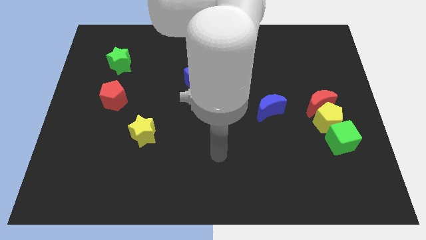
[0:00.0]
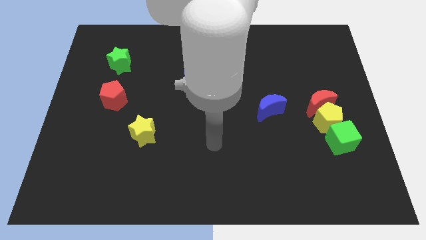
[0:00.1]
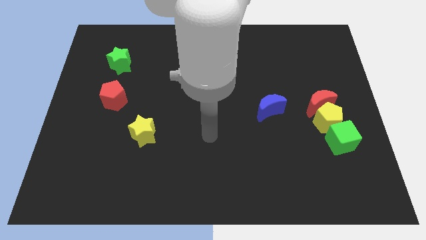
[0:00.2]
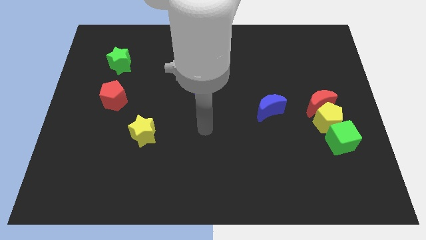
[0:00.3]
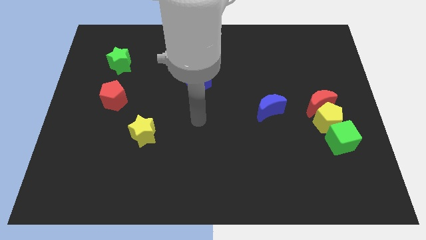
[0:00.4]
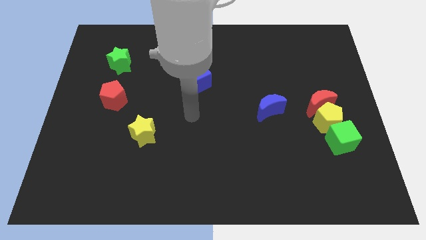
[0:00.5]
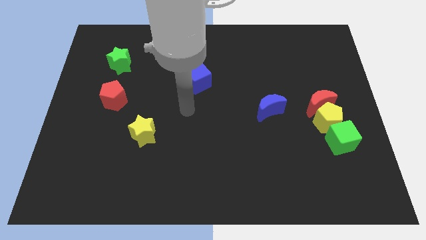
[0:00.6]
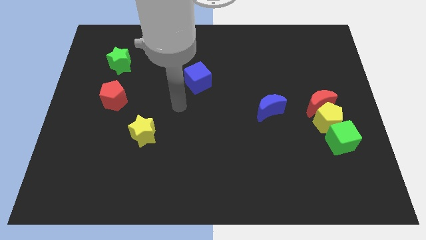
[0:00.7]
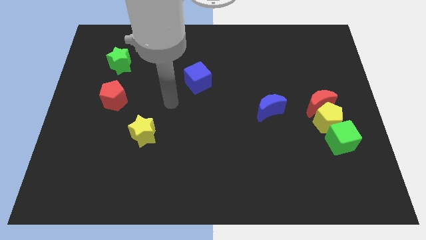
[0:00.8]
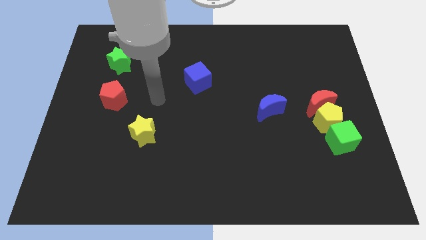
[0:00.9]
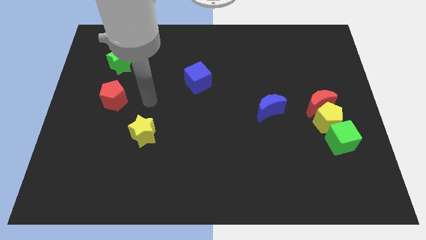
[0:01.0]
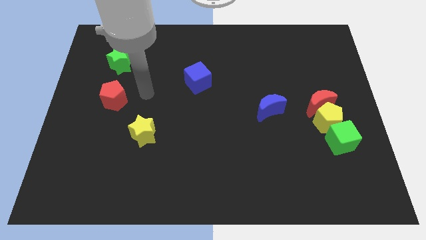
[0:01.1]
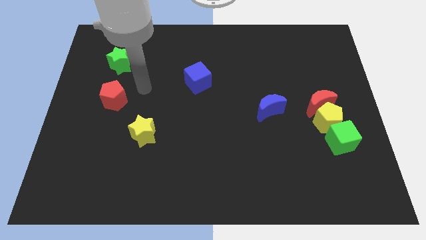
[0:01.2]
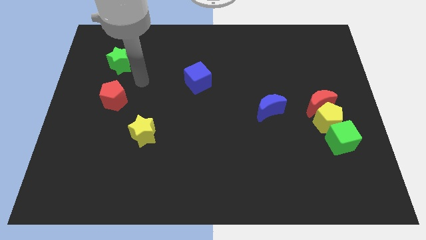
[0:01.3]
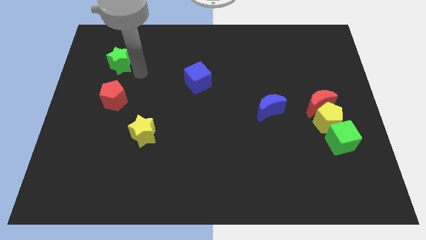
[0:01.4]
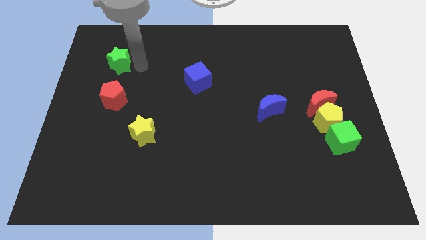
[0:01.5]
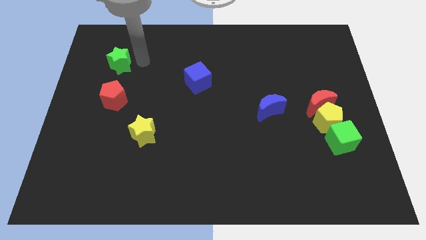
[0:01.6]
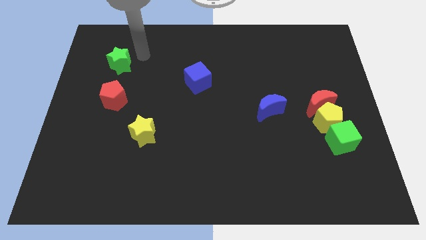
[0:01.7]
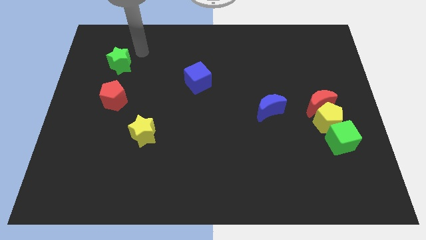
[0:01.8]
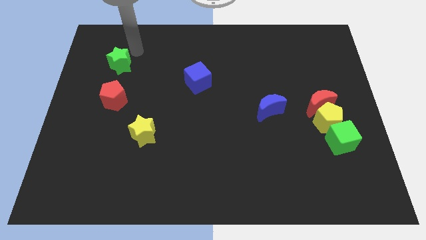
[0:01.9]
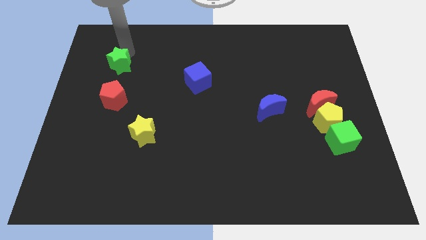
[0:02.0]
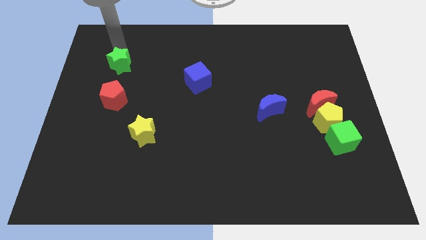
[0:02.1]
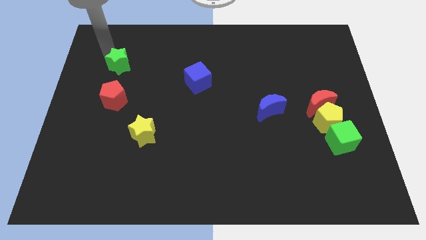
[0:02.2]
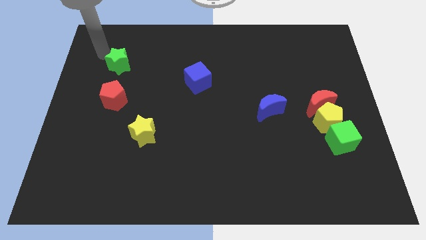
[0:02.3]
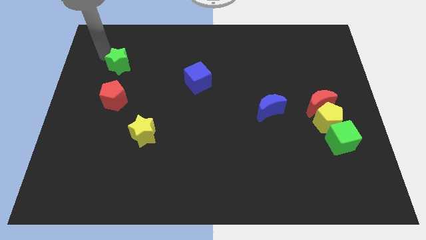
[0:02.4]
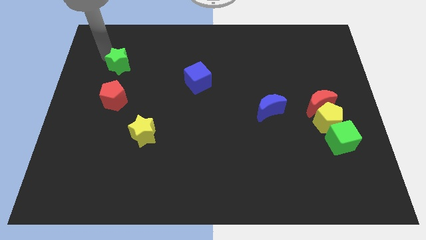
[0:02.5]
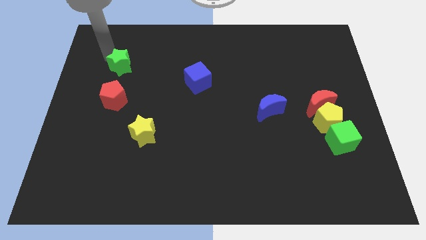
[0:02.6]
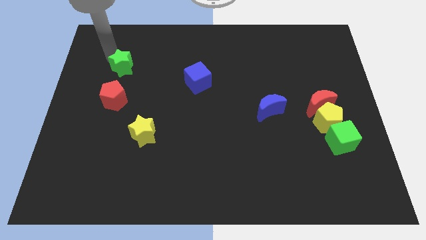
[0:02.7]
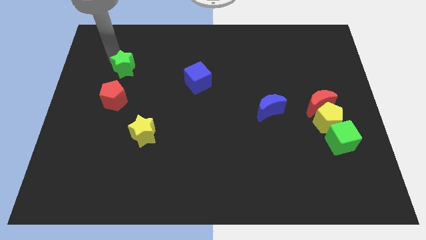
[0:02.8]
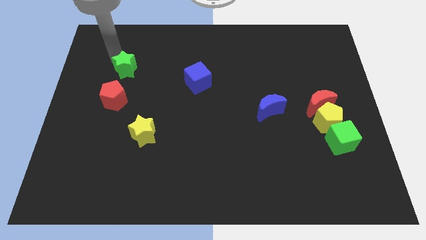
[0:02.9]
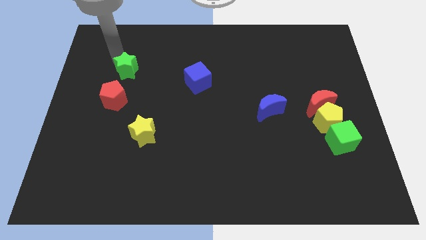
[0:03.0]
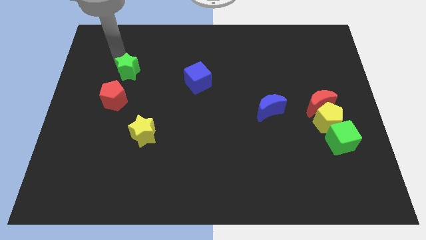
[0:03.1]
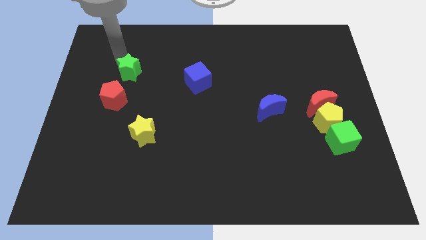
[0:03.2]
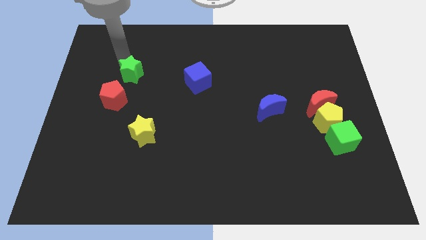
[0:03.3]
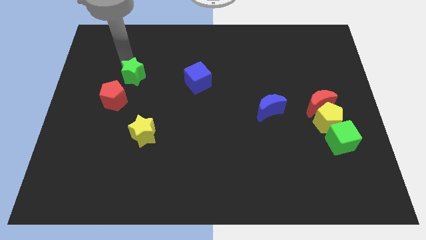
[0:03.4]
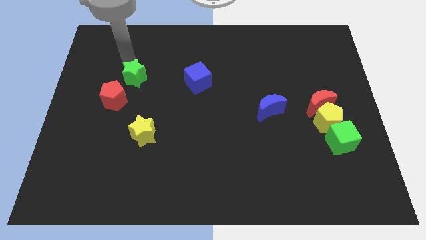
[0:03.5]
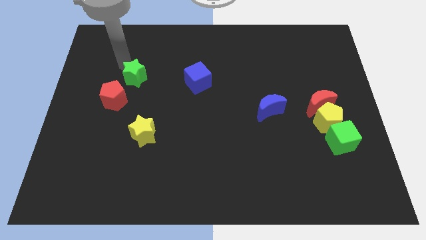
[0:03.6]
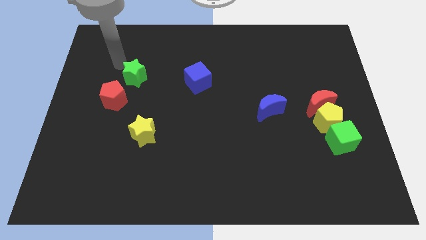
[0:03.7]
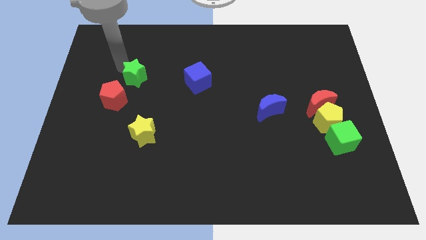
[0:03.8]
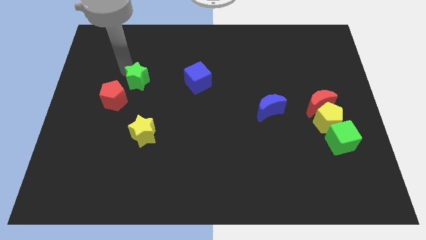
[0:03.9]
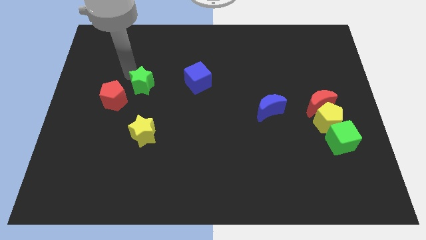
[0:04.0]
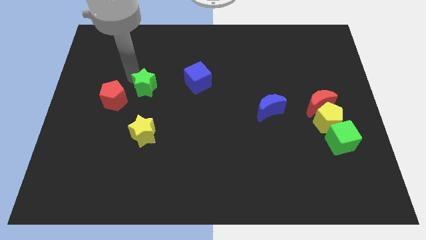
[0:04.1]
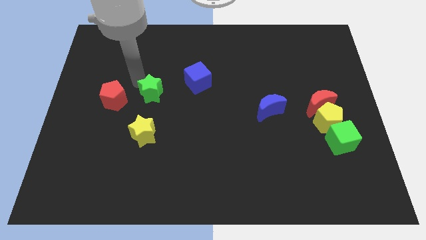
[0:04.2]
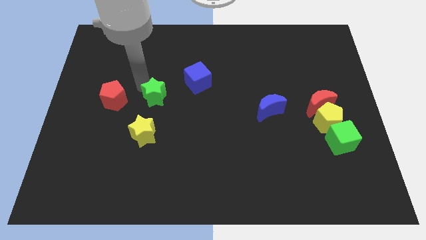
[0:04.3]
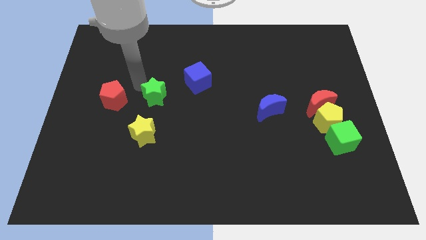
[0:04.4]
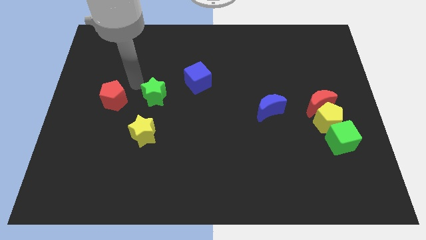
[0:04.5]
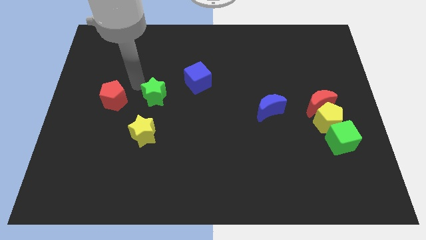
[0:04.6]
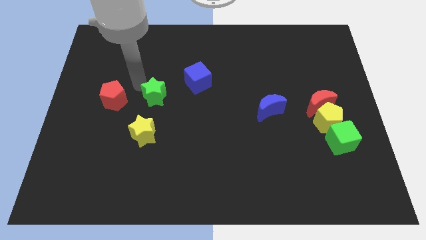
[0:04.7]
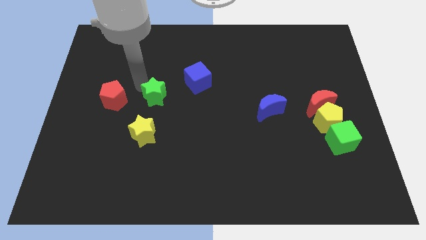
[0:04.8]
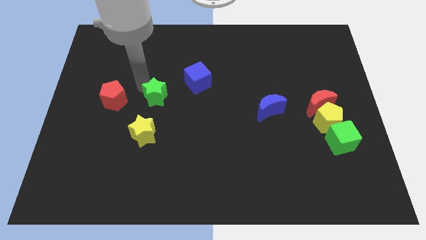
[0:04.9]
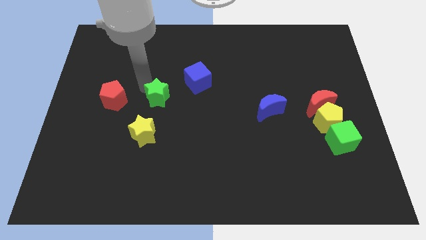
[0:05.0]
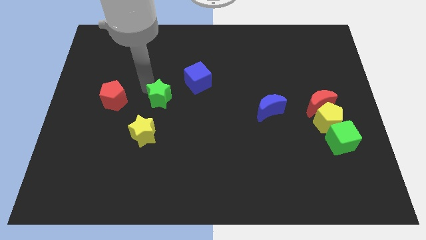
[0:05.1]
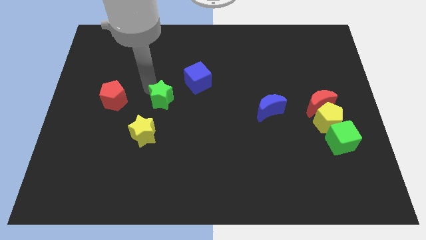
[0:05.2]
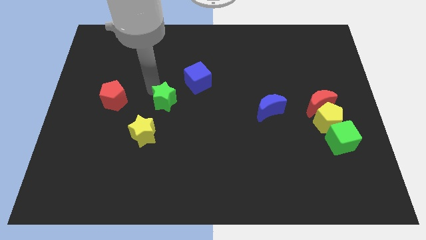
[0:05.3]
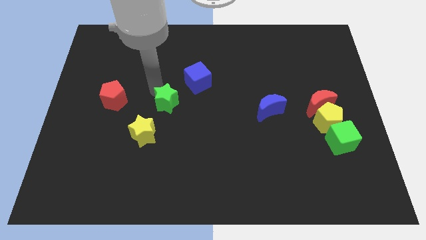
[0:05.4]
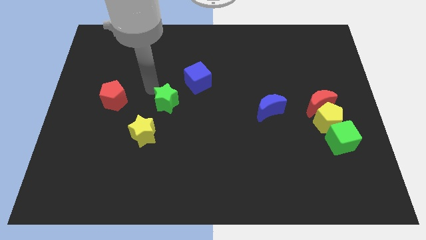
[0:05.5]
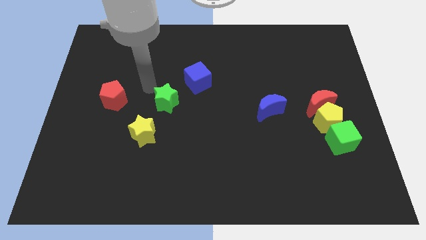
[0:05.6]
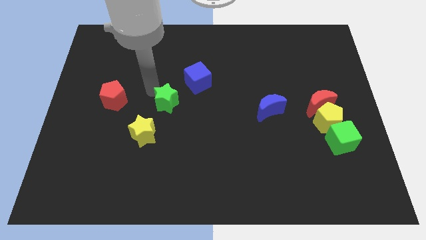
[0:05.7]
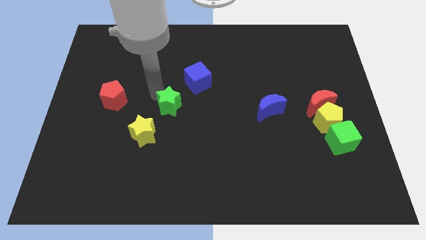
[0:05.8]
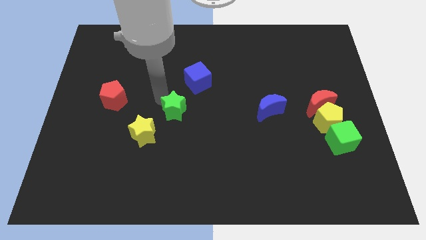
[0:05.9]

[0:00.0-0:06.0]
slide the green star downwards and then right

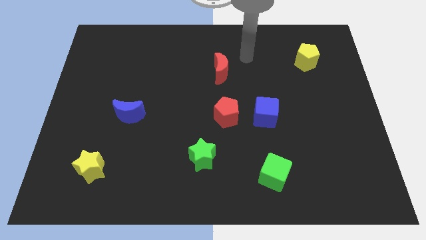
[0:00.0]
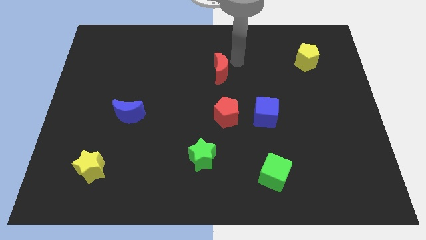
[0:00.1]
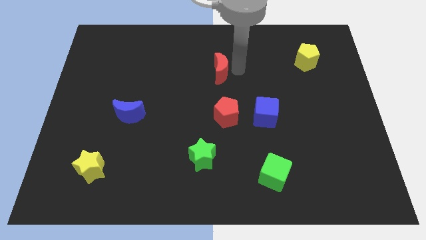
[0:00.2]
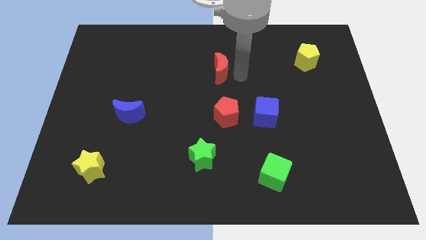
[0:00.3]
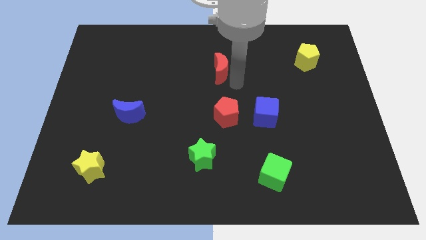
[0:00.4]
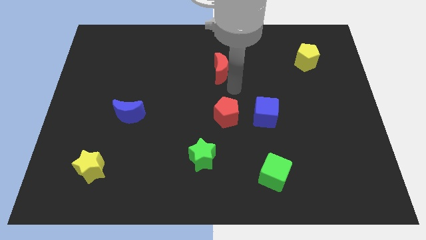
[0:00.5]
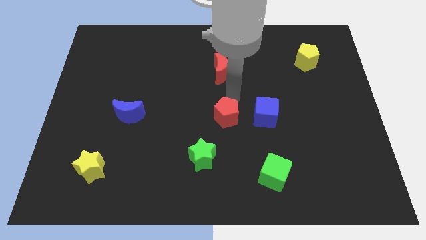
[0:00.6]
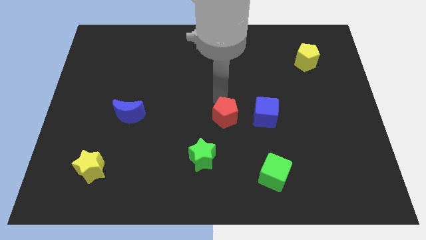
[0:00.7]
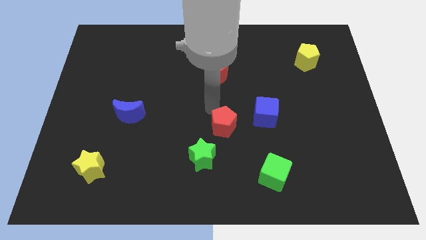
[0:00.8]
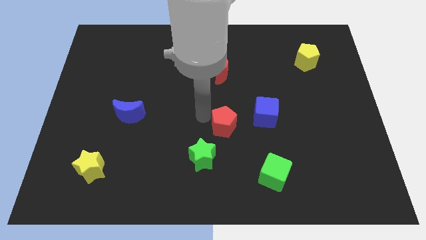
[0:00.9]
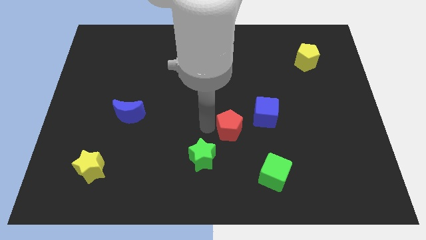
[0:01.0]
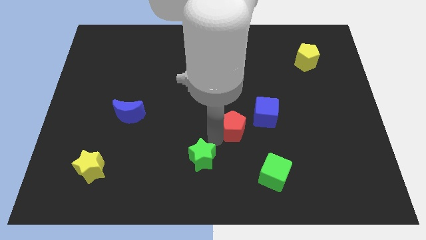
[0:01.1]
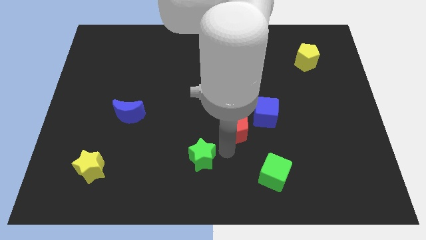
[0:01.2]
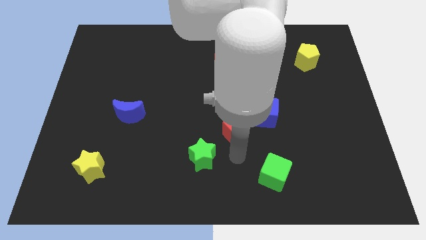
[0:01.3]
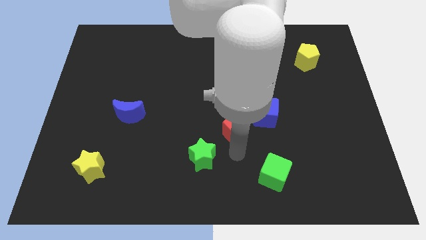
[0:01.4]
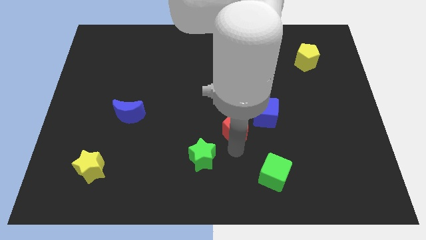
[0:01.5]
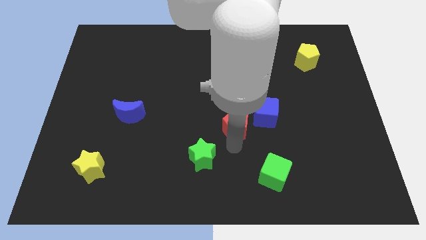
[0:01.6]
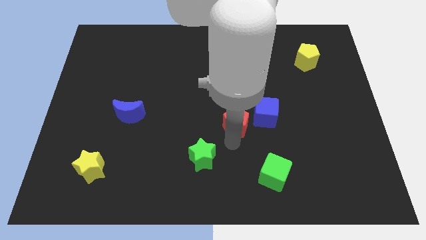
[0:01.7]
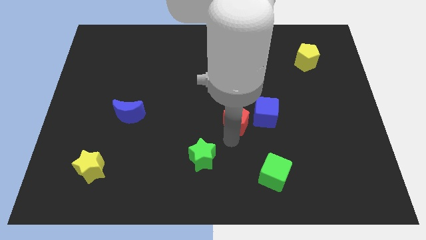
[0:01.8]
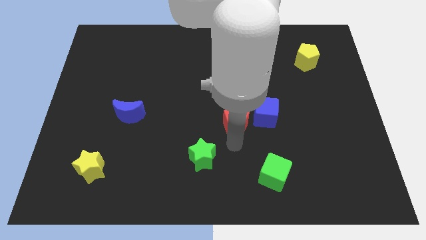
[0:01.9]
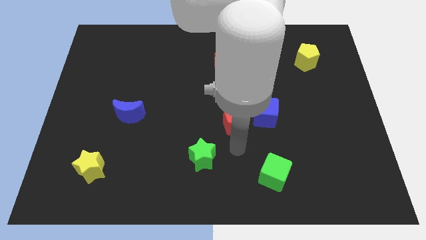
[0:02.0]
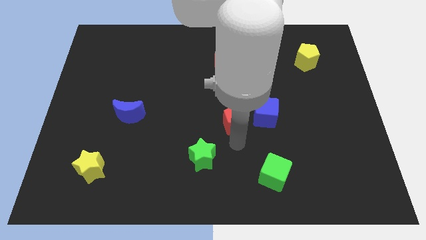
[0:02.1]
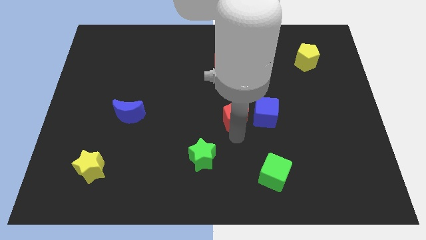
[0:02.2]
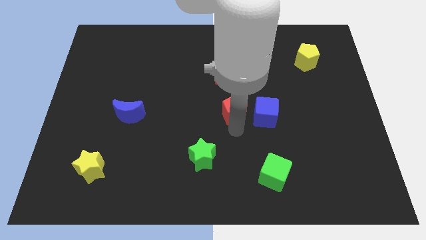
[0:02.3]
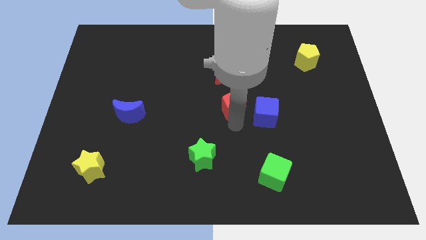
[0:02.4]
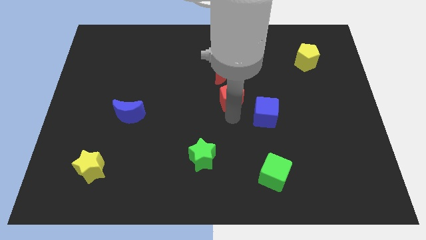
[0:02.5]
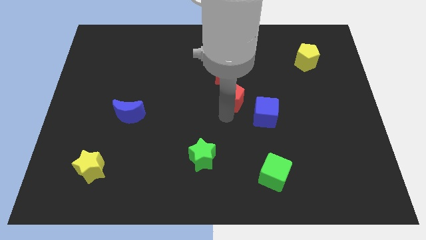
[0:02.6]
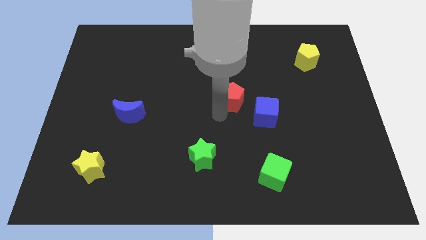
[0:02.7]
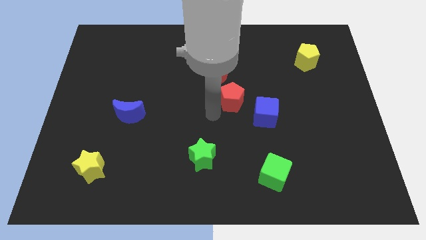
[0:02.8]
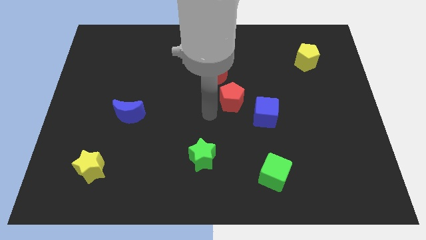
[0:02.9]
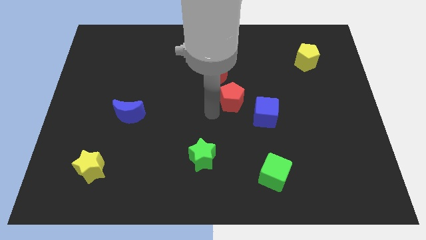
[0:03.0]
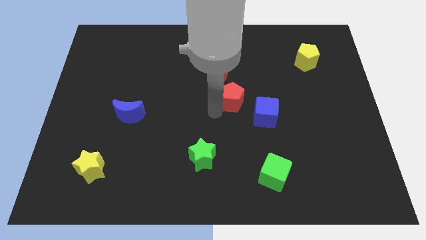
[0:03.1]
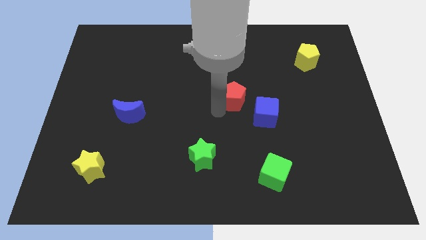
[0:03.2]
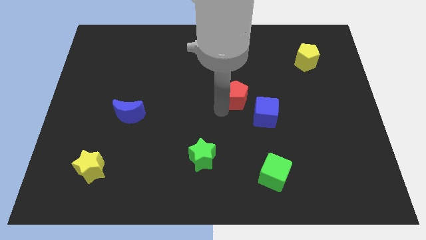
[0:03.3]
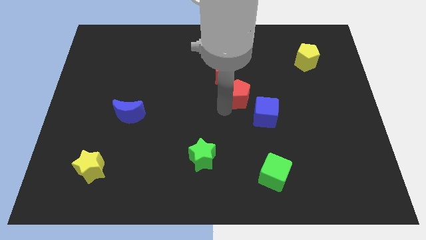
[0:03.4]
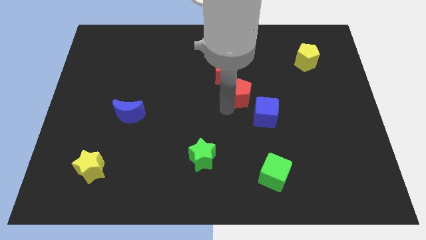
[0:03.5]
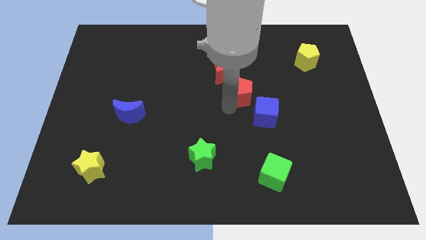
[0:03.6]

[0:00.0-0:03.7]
push the red pentagon a little up and to the right
